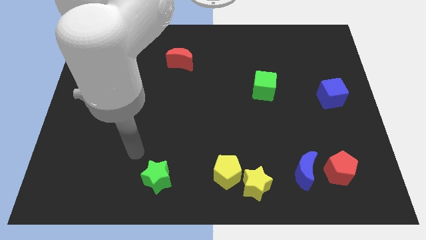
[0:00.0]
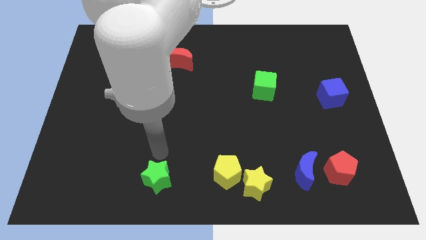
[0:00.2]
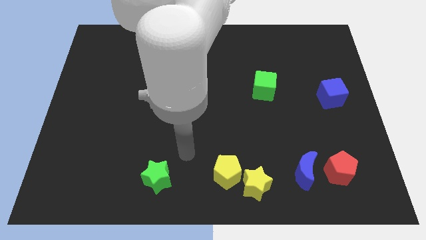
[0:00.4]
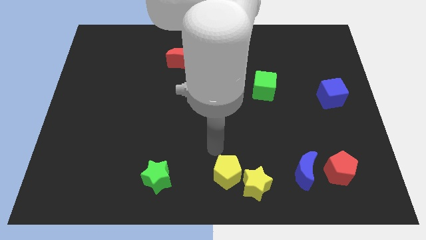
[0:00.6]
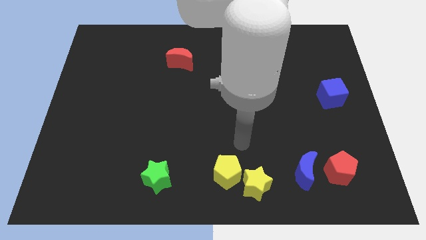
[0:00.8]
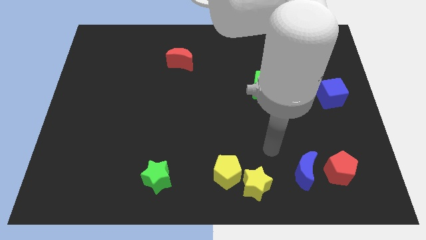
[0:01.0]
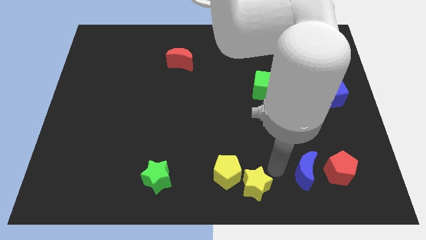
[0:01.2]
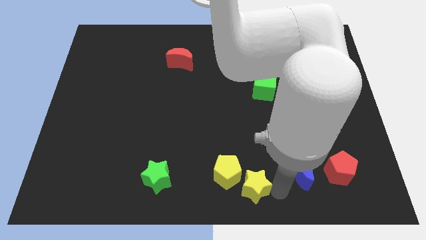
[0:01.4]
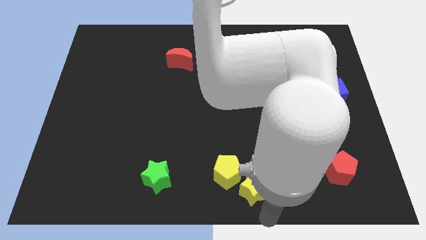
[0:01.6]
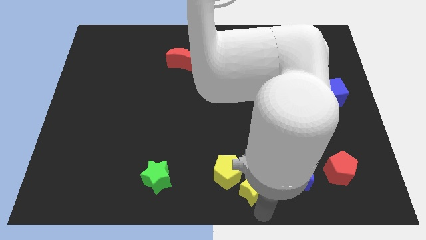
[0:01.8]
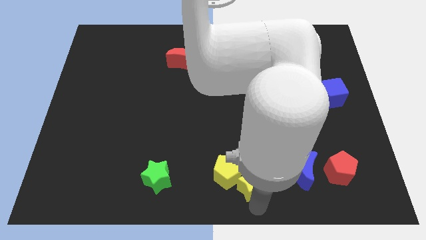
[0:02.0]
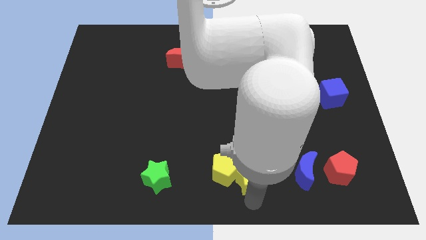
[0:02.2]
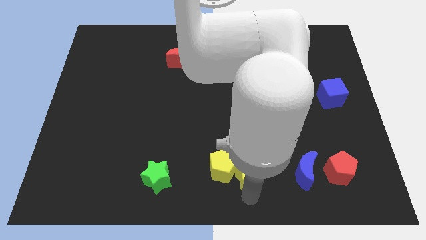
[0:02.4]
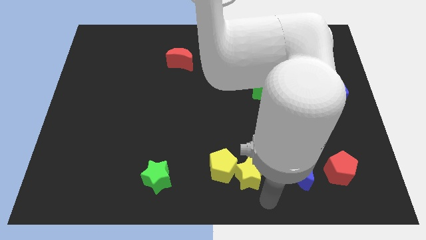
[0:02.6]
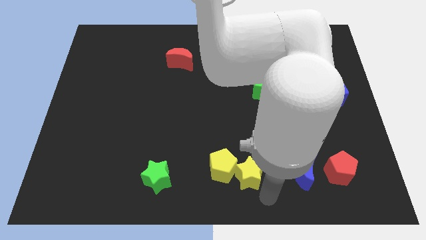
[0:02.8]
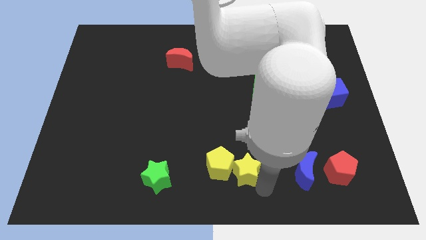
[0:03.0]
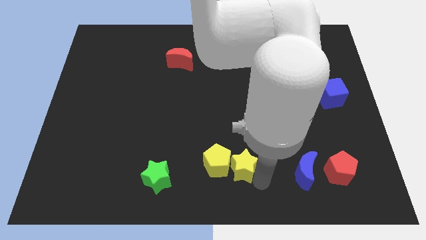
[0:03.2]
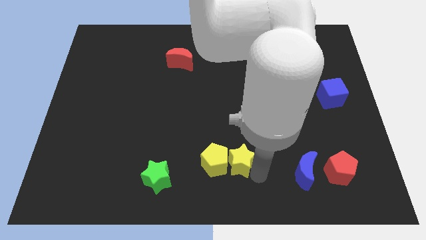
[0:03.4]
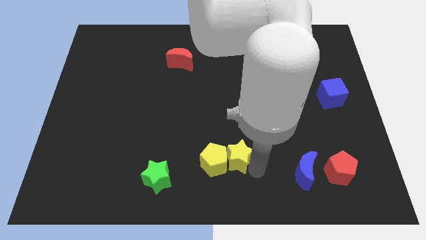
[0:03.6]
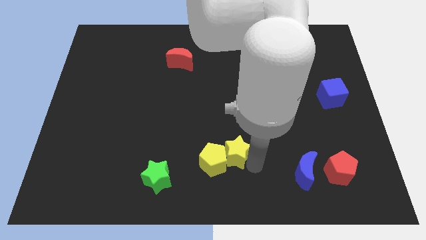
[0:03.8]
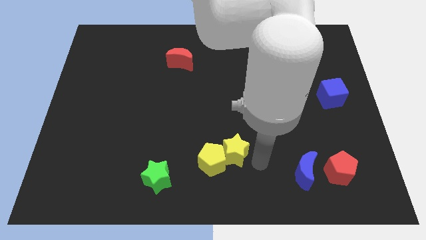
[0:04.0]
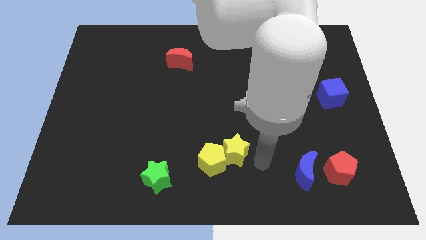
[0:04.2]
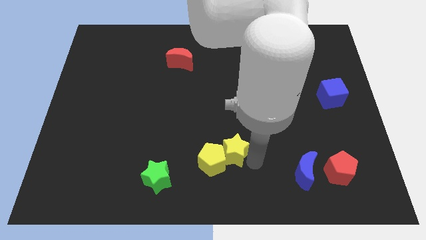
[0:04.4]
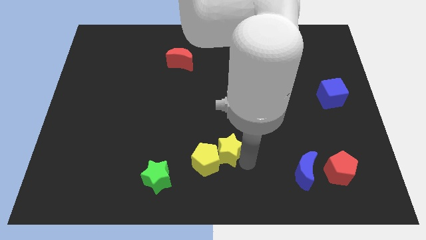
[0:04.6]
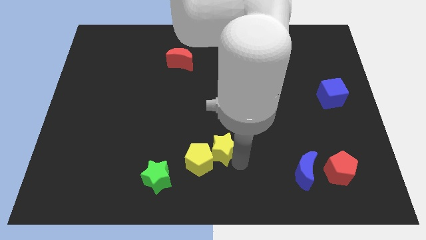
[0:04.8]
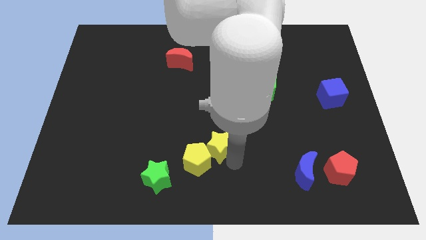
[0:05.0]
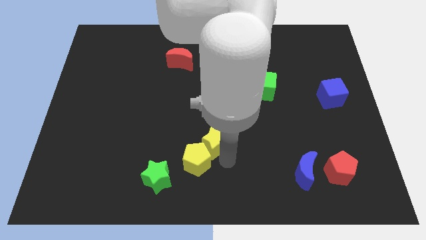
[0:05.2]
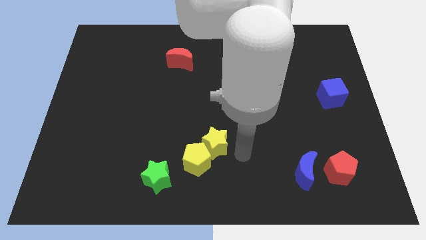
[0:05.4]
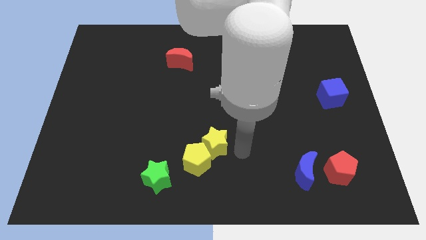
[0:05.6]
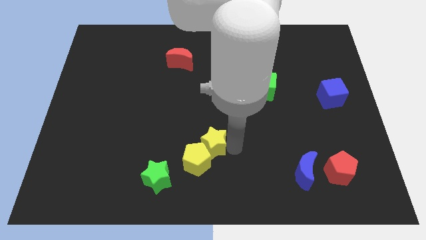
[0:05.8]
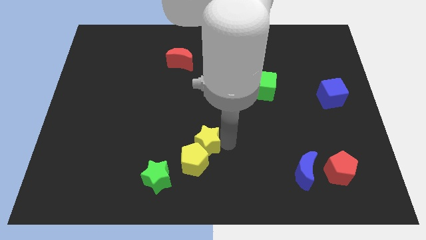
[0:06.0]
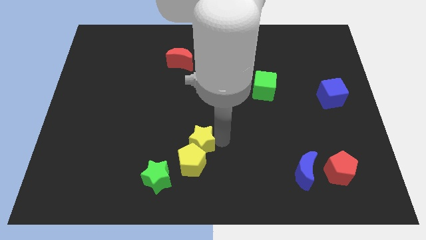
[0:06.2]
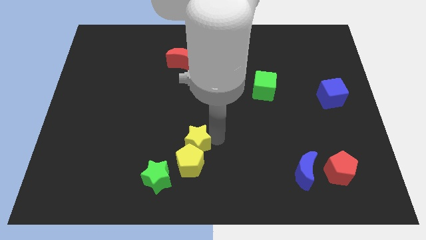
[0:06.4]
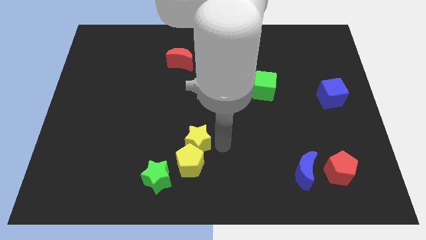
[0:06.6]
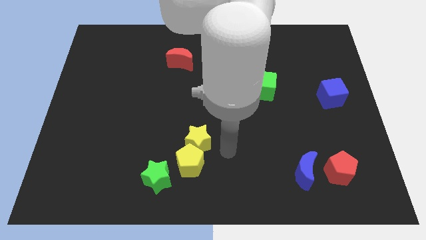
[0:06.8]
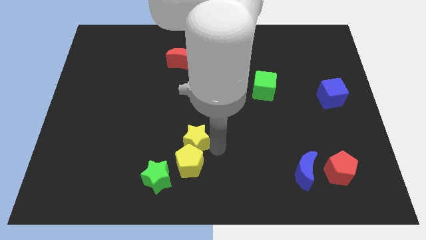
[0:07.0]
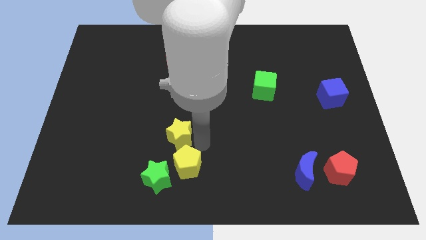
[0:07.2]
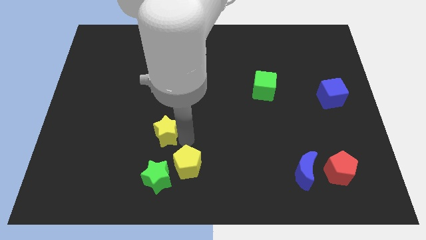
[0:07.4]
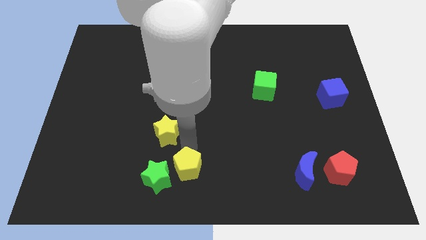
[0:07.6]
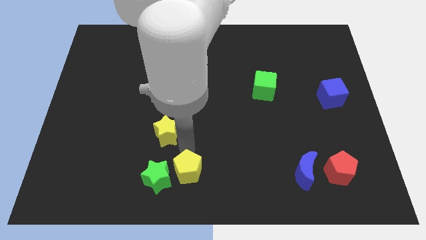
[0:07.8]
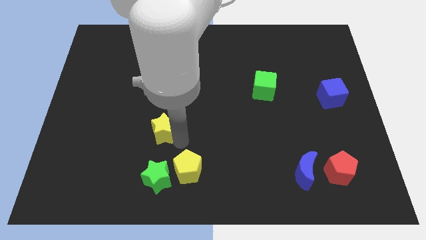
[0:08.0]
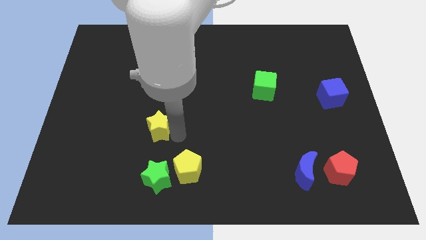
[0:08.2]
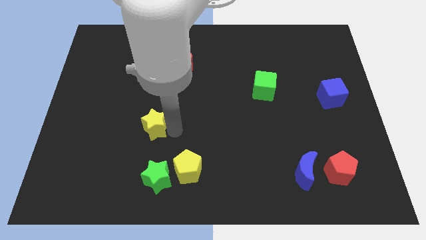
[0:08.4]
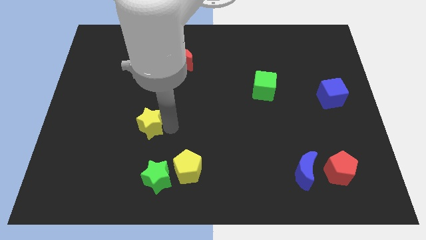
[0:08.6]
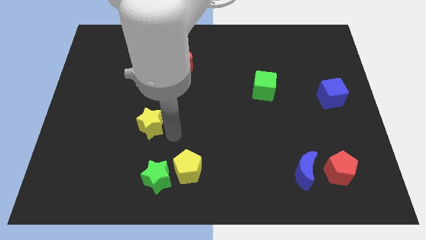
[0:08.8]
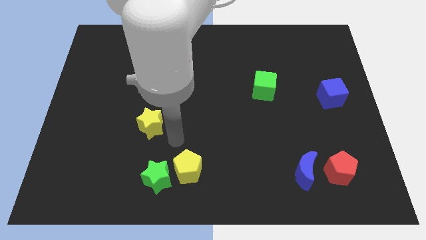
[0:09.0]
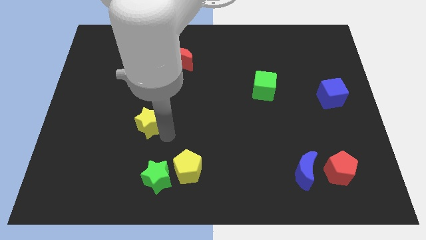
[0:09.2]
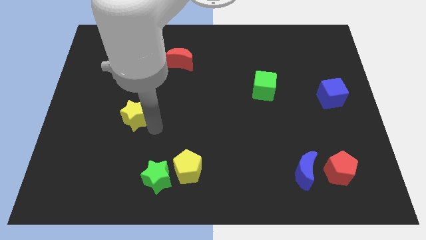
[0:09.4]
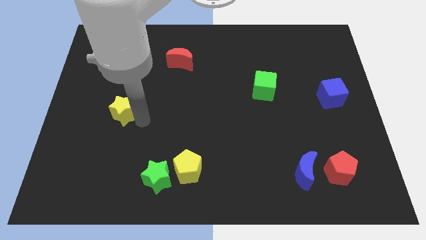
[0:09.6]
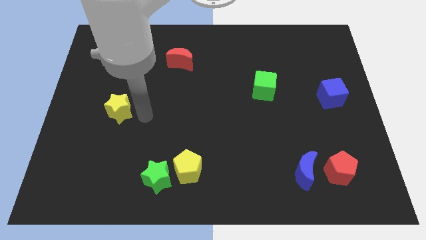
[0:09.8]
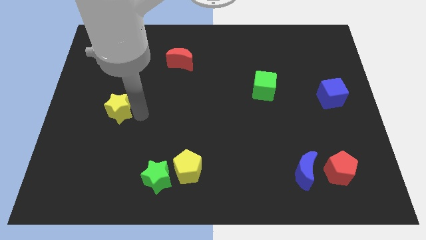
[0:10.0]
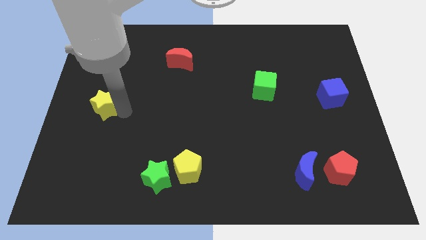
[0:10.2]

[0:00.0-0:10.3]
move the yellow star to the center left

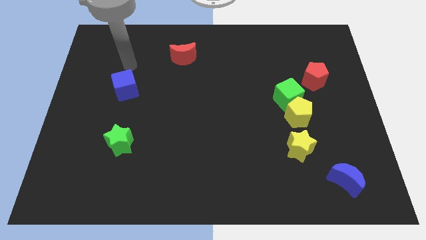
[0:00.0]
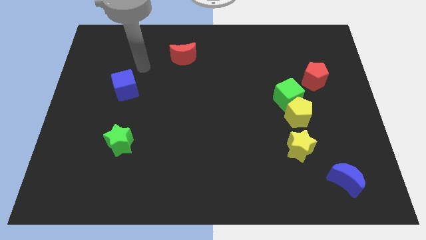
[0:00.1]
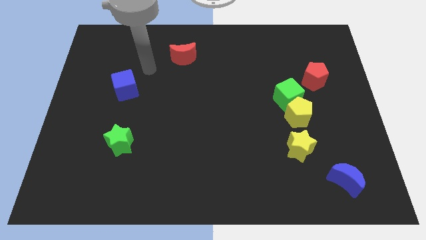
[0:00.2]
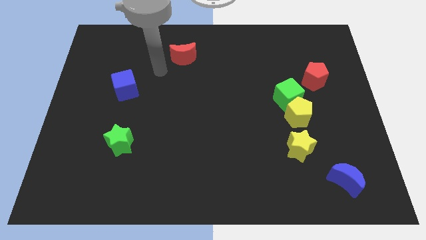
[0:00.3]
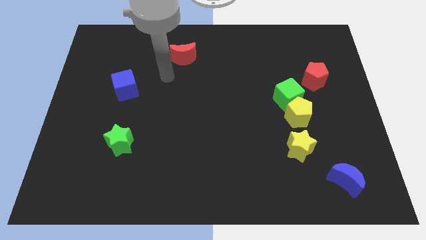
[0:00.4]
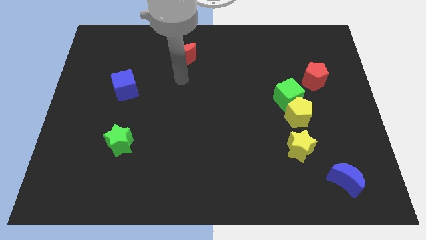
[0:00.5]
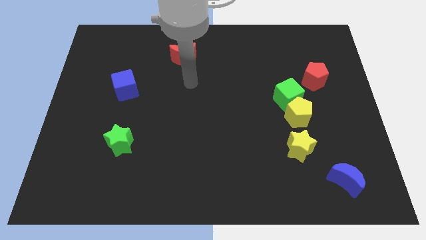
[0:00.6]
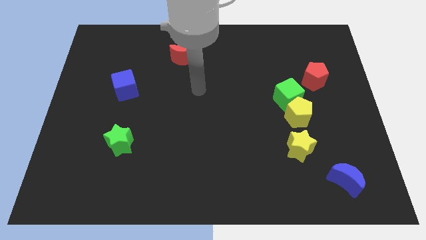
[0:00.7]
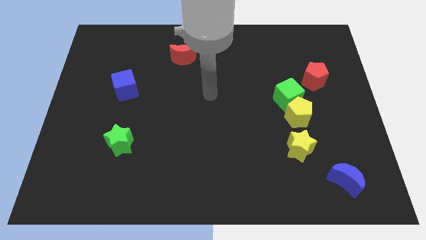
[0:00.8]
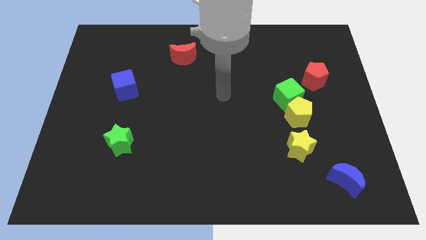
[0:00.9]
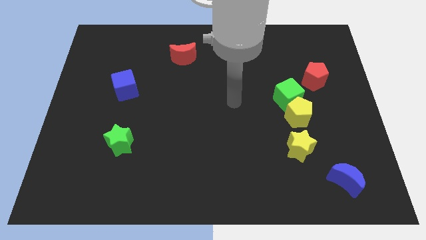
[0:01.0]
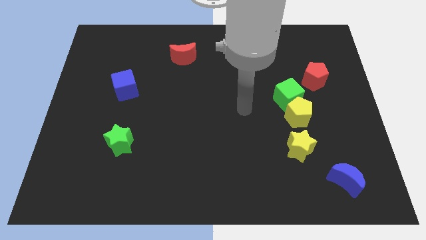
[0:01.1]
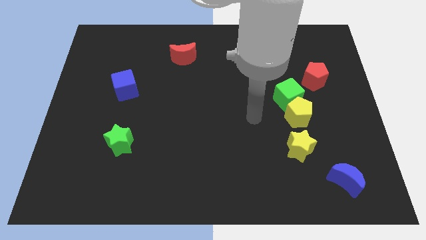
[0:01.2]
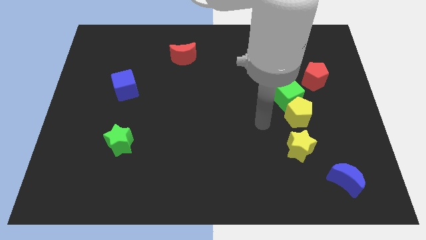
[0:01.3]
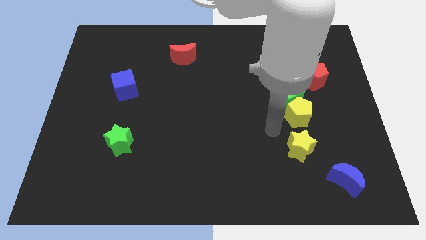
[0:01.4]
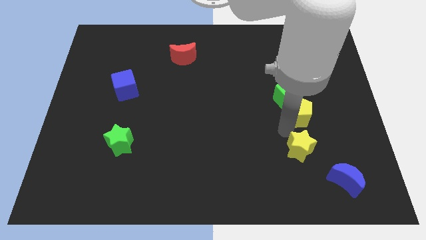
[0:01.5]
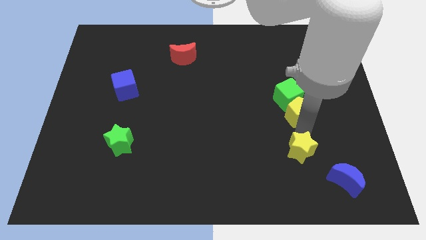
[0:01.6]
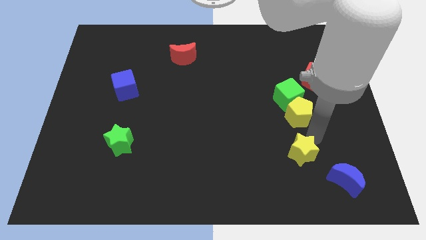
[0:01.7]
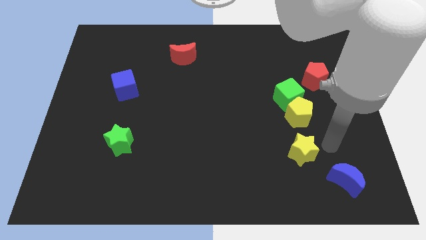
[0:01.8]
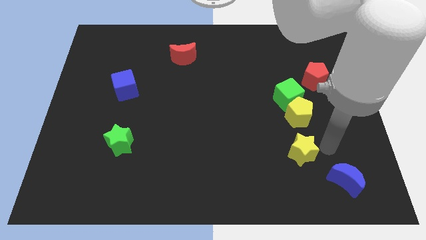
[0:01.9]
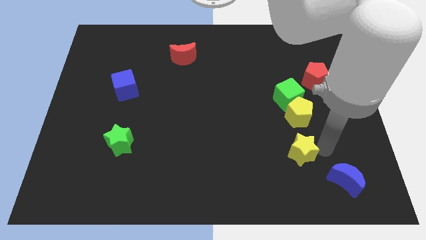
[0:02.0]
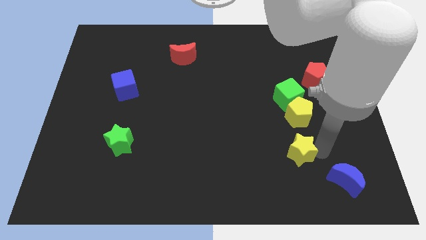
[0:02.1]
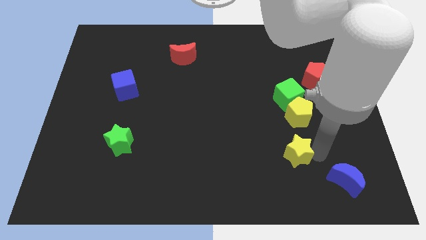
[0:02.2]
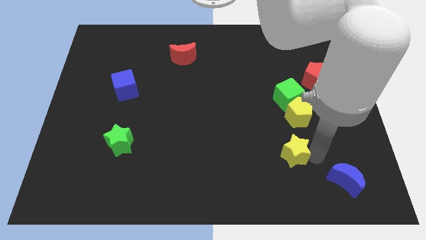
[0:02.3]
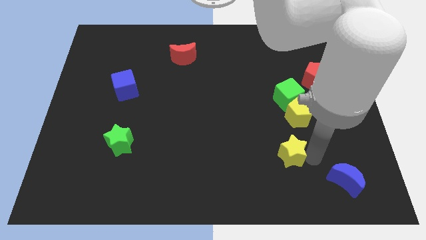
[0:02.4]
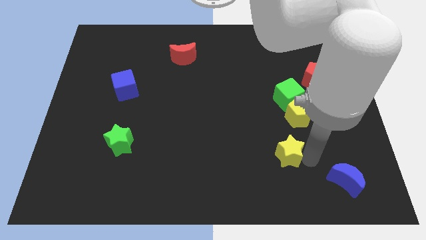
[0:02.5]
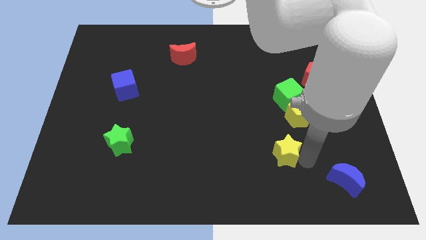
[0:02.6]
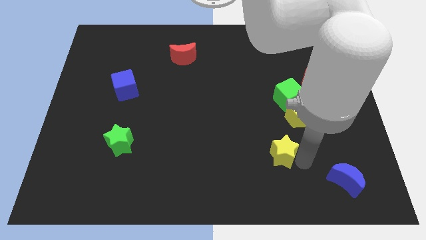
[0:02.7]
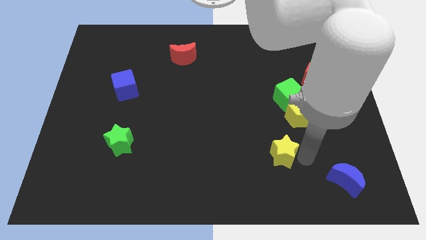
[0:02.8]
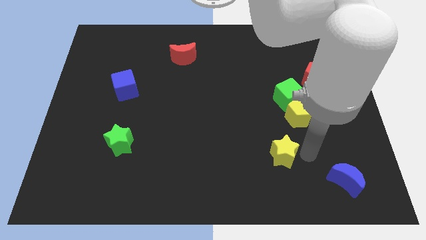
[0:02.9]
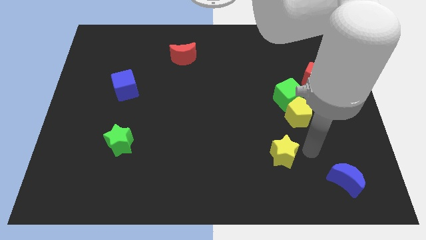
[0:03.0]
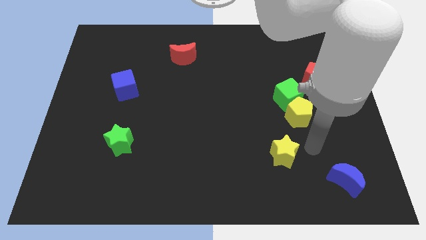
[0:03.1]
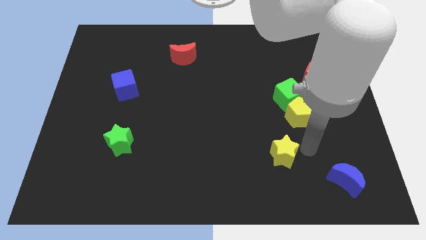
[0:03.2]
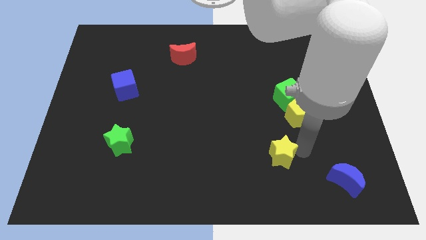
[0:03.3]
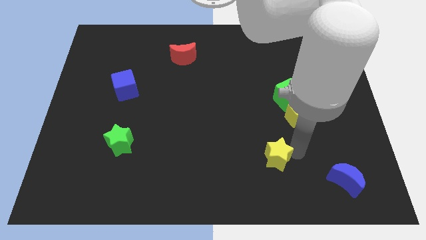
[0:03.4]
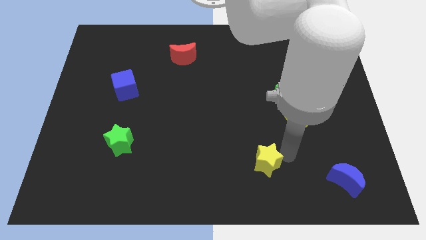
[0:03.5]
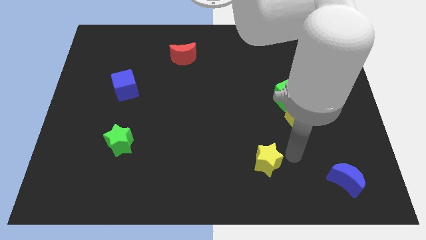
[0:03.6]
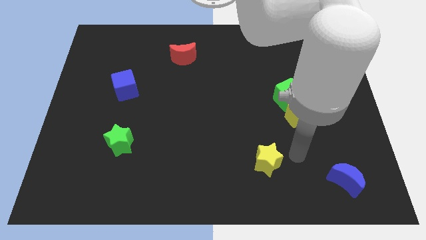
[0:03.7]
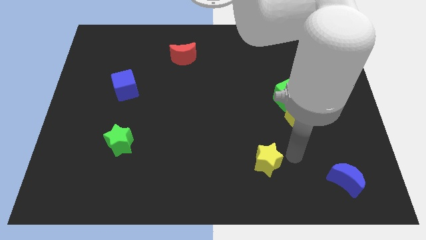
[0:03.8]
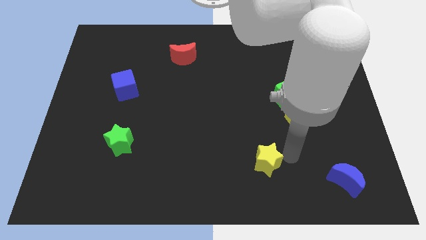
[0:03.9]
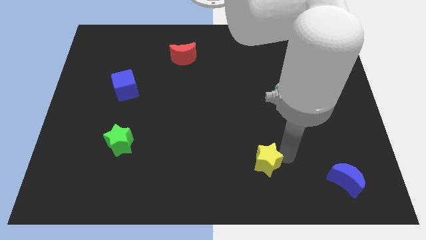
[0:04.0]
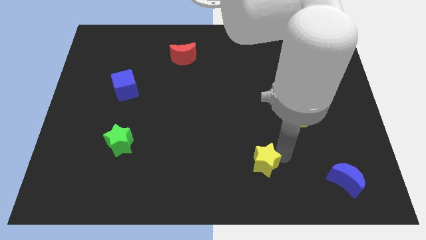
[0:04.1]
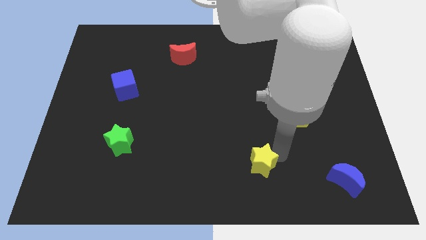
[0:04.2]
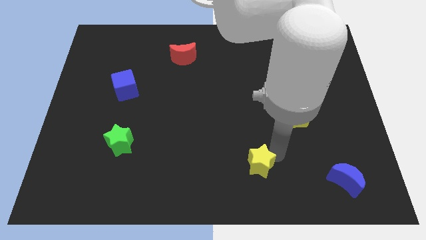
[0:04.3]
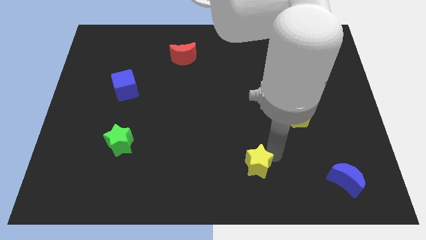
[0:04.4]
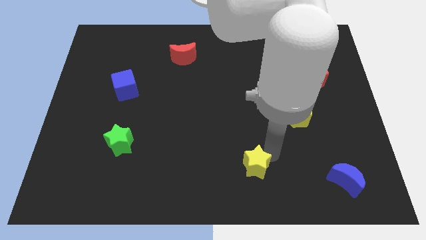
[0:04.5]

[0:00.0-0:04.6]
put the yellow star to the bottom
